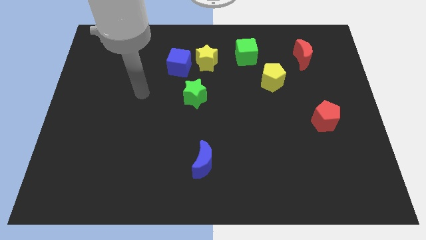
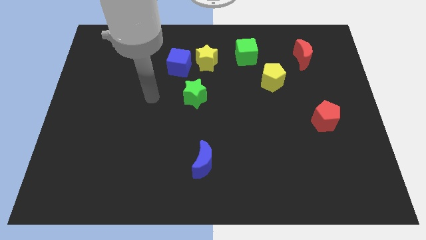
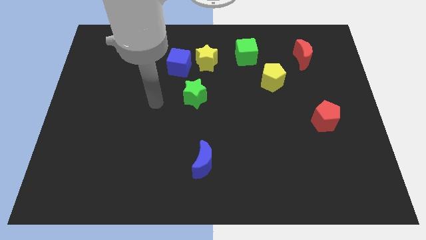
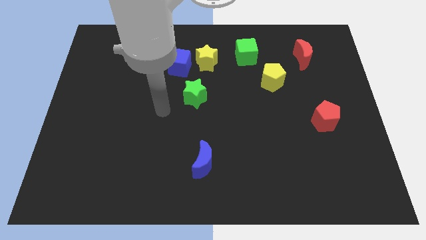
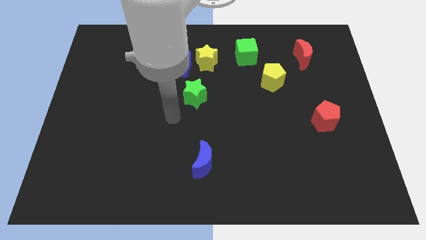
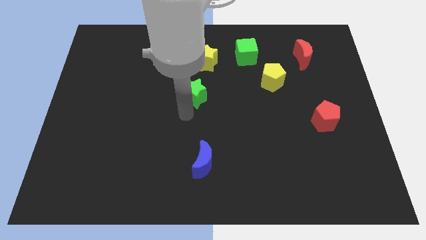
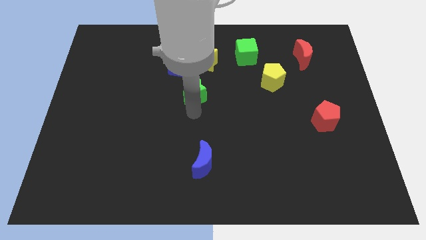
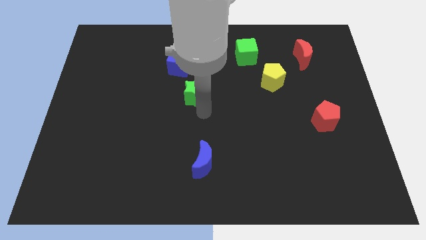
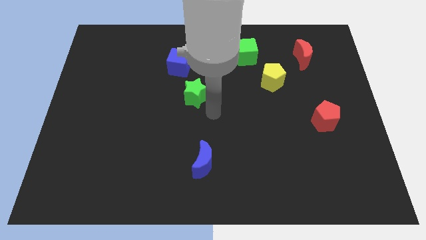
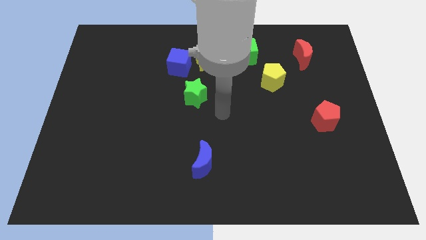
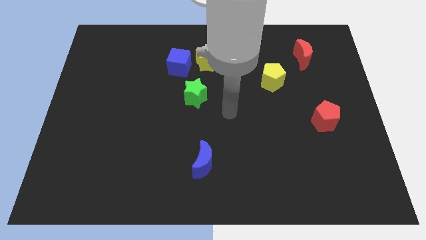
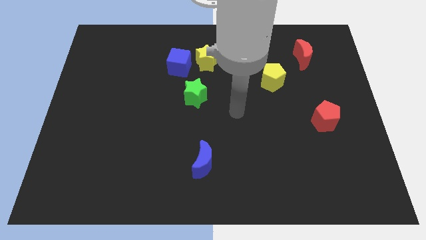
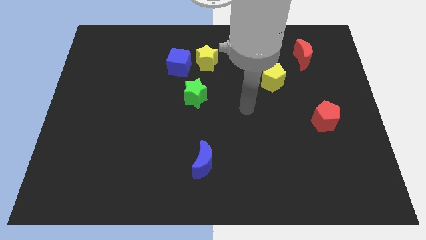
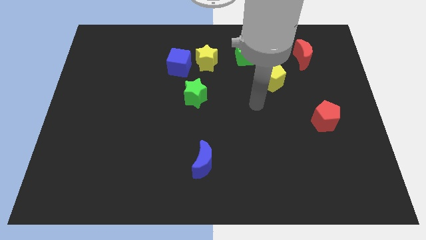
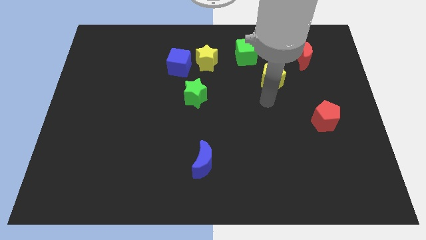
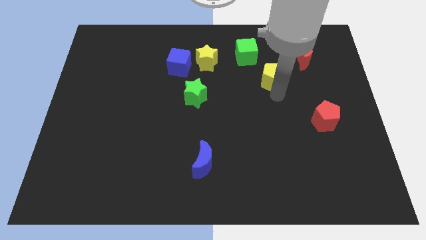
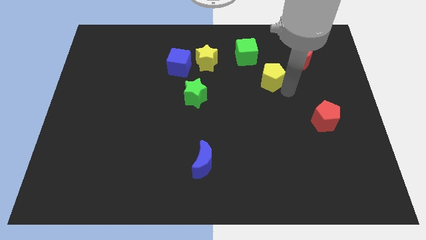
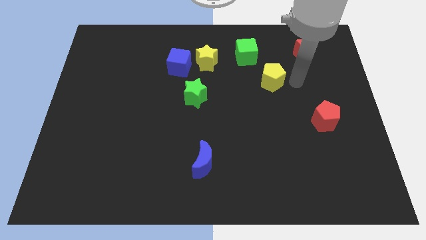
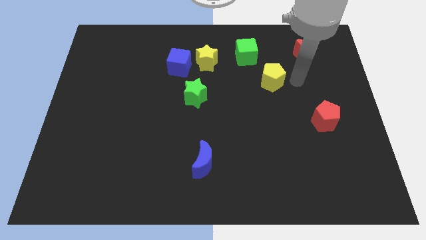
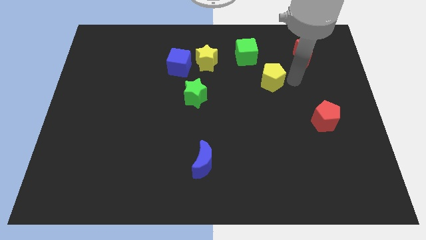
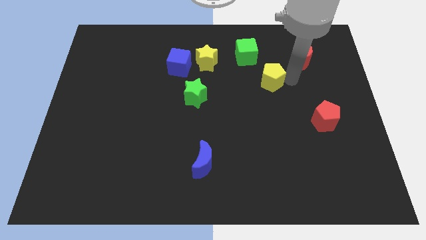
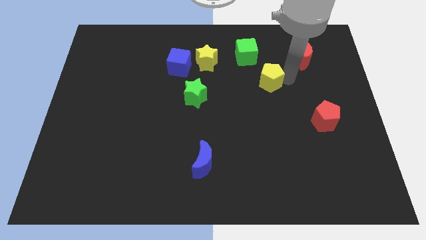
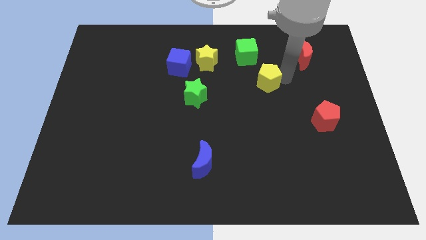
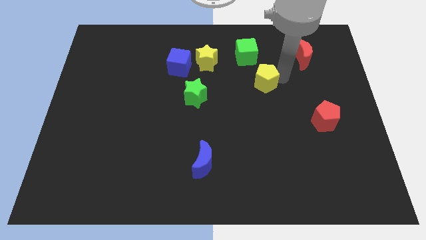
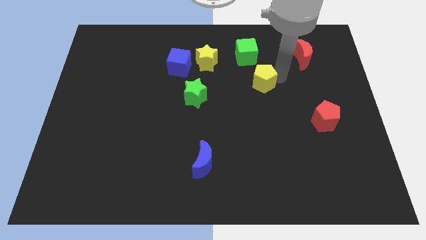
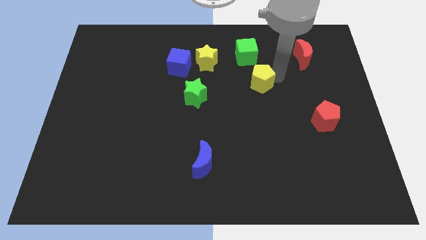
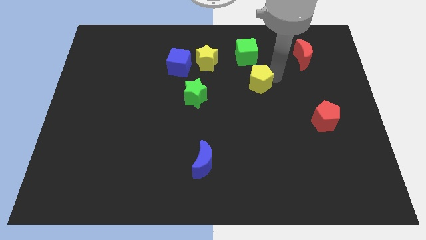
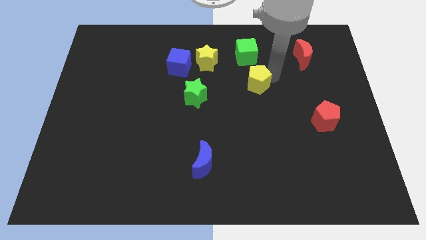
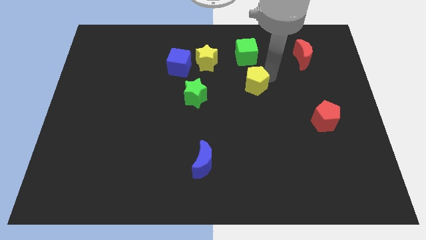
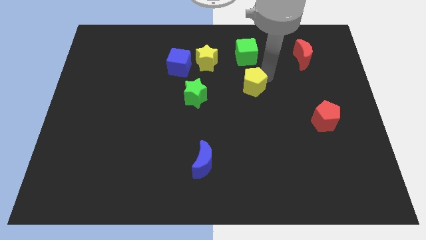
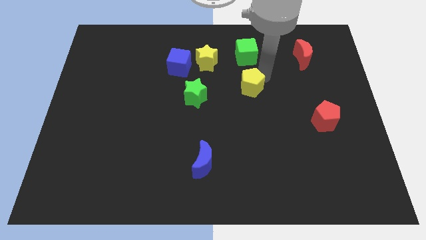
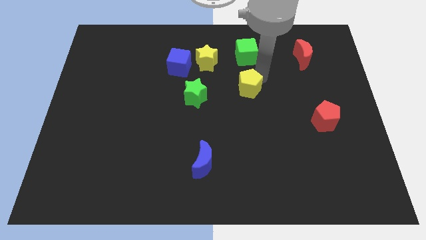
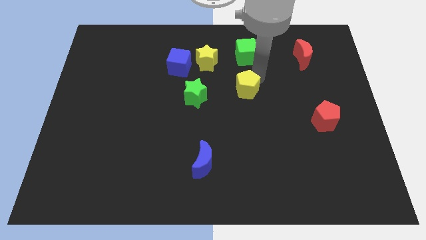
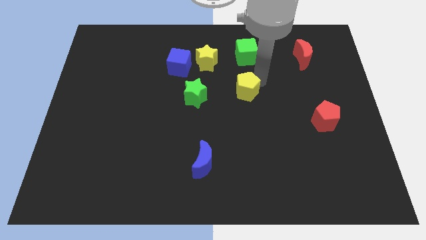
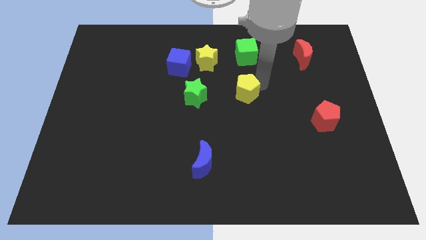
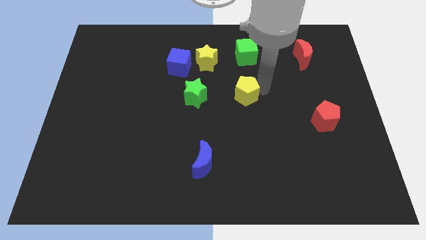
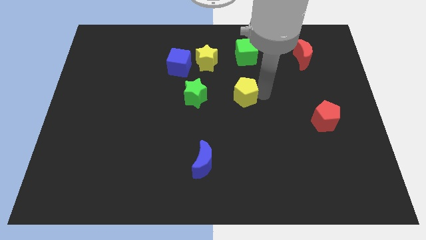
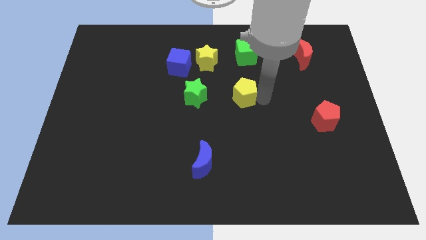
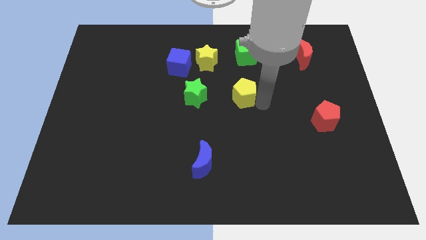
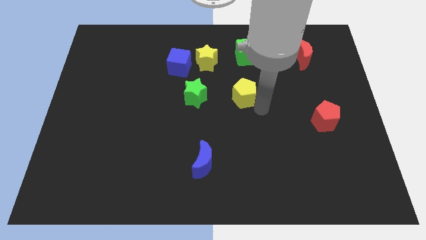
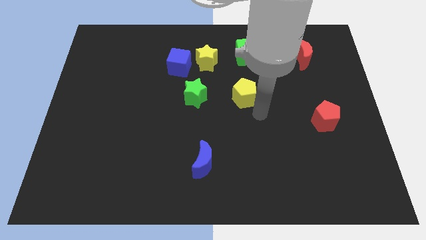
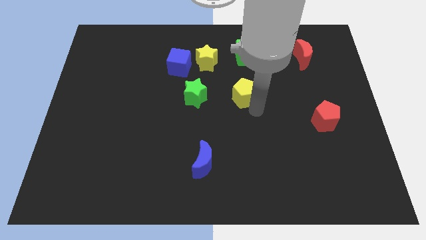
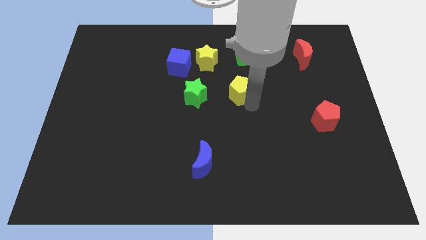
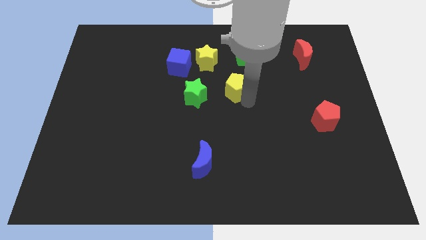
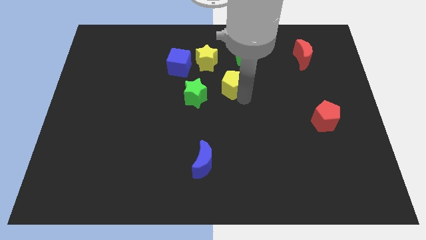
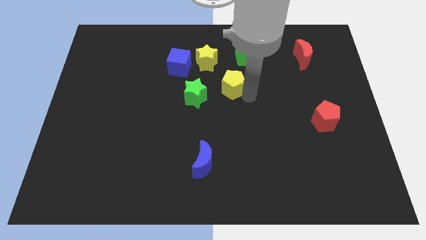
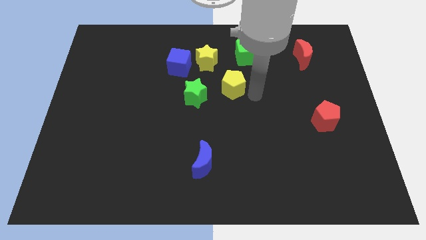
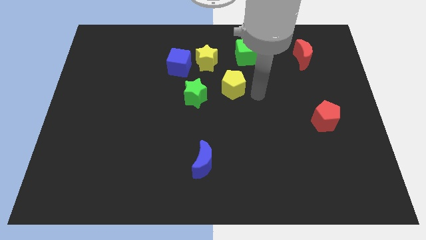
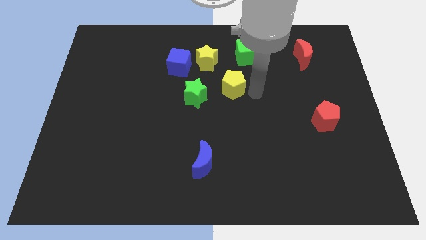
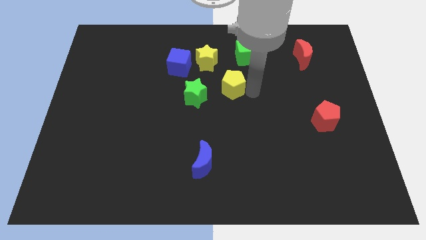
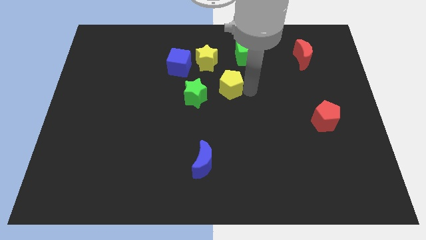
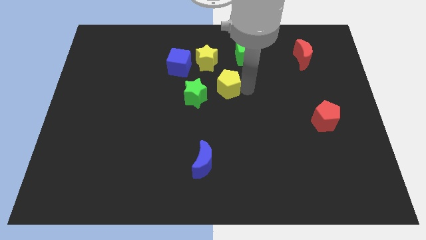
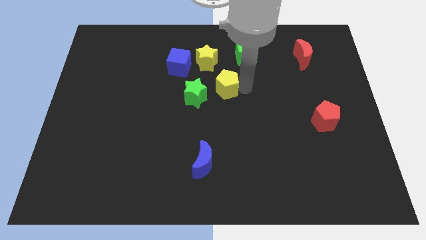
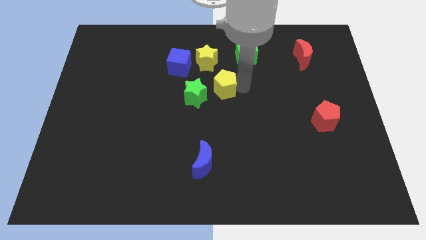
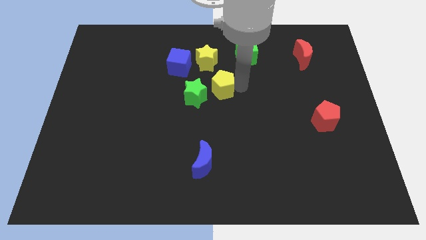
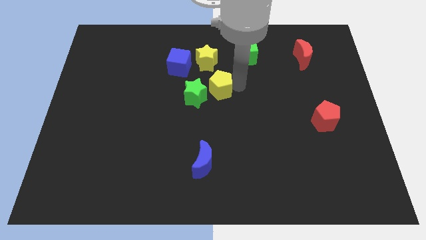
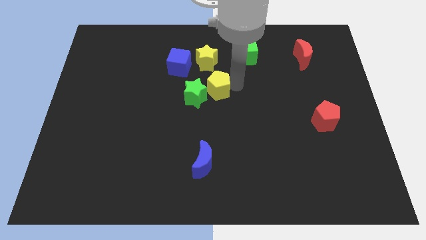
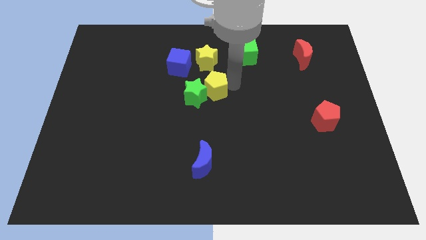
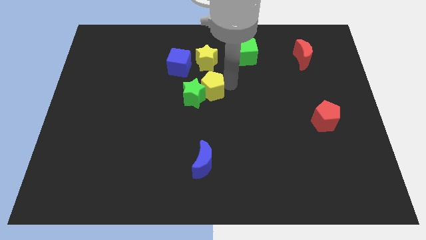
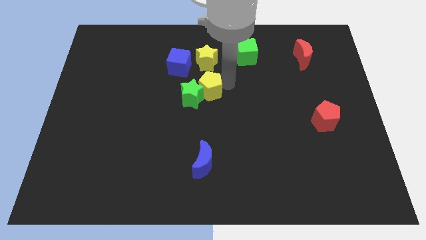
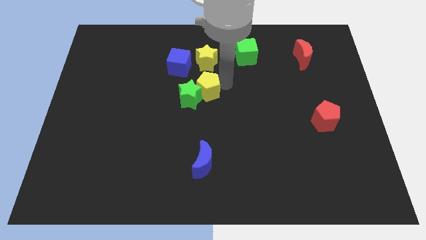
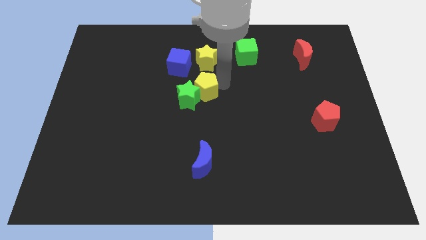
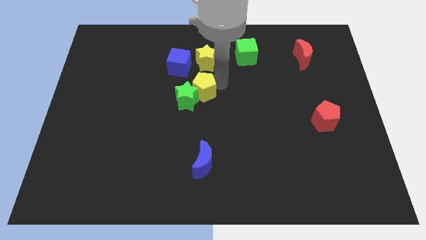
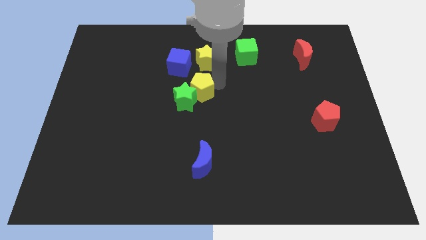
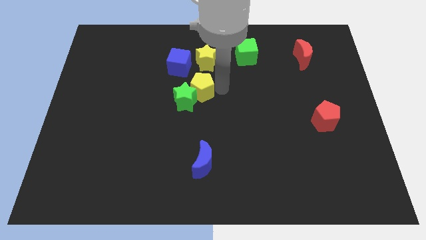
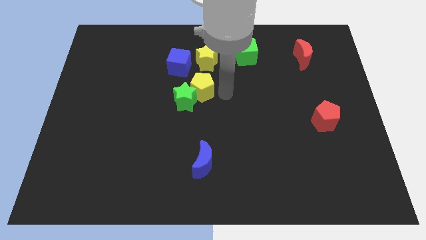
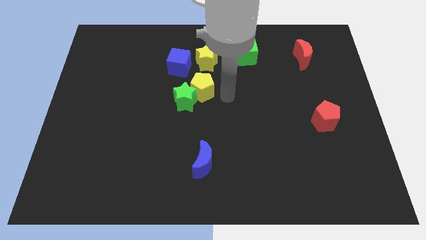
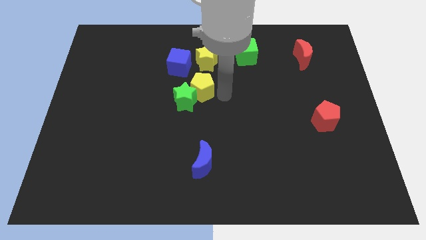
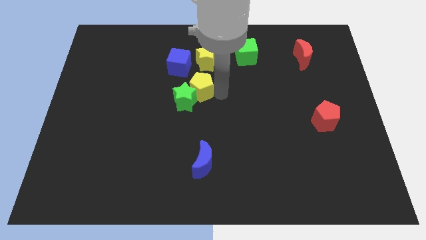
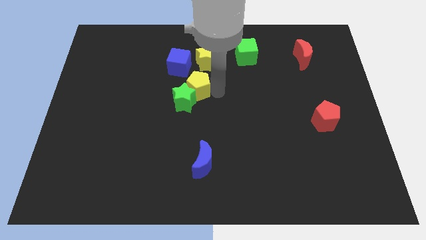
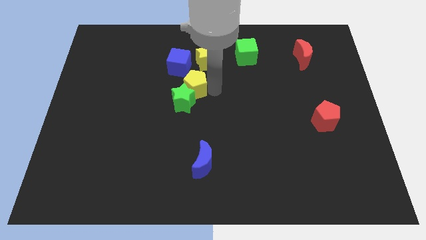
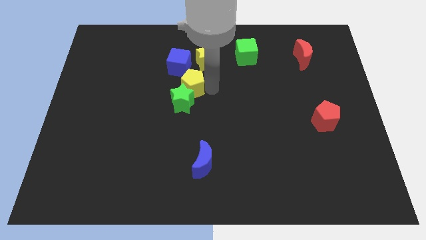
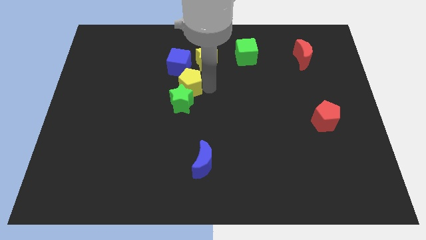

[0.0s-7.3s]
move the yellow pentagon to the left

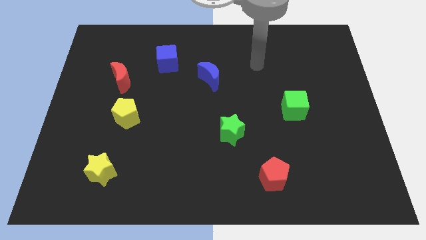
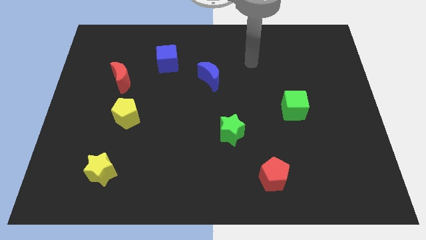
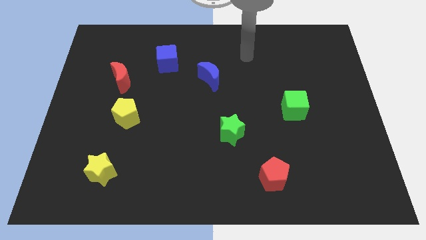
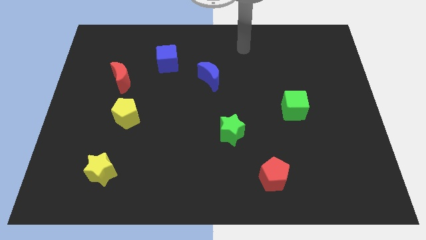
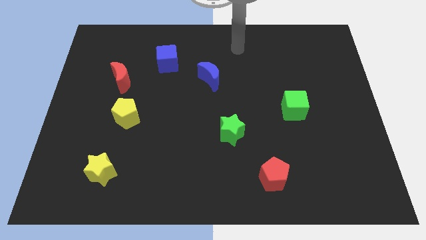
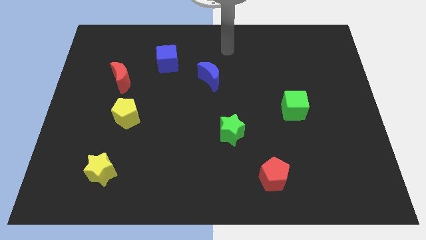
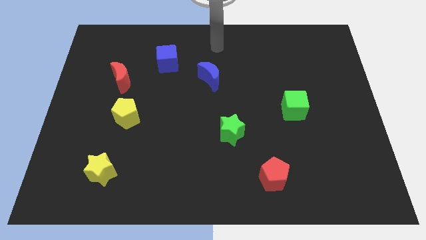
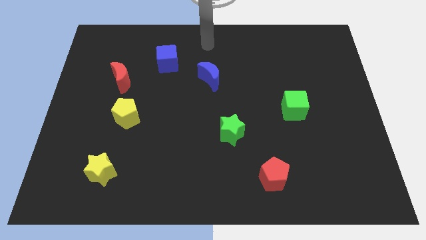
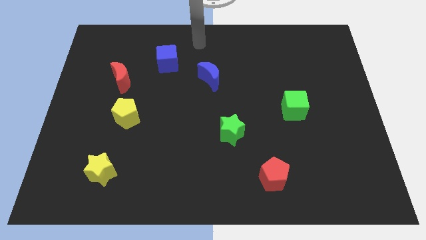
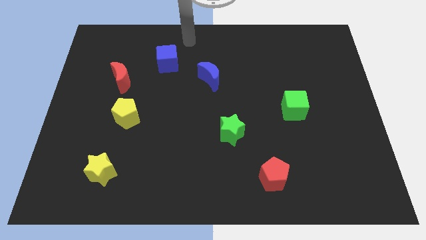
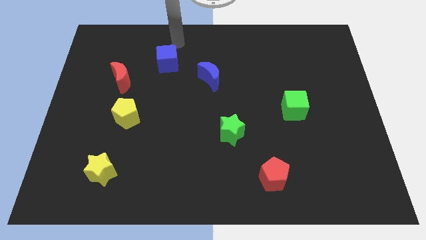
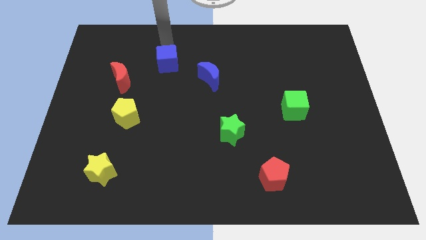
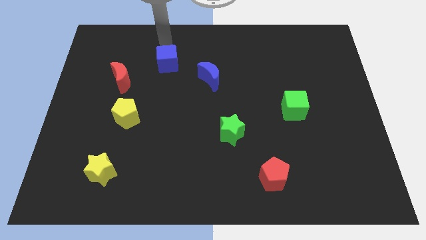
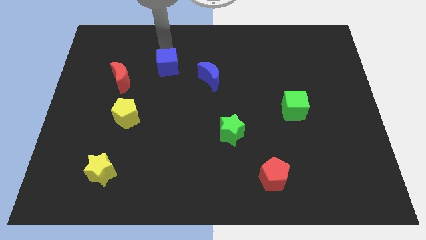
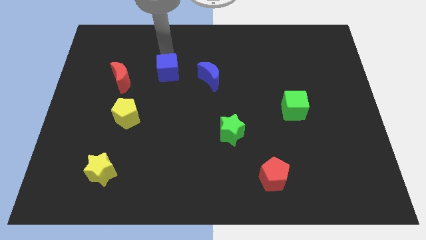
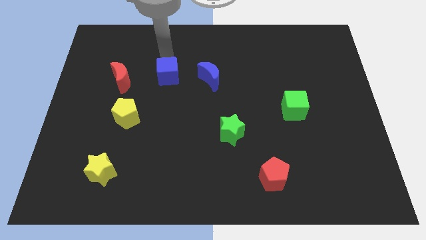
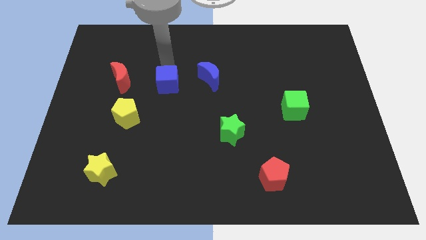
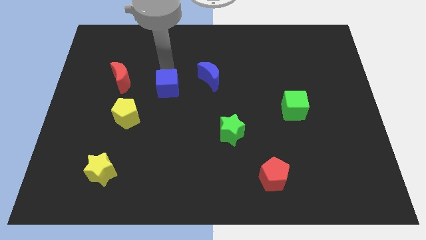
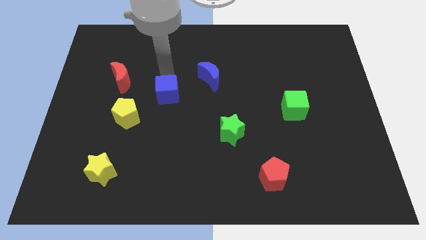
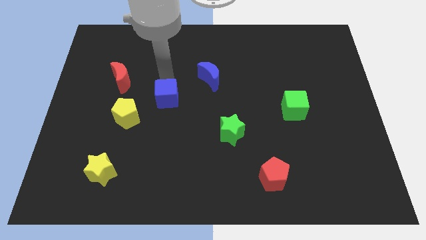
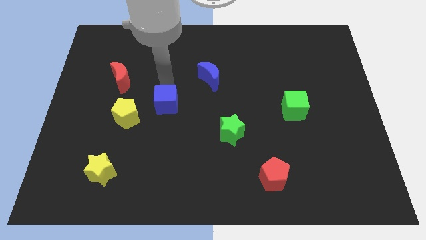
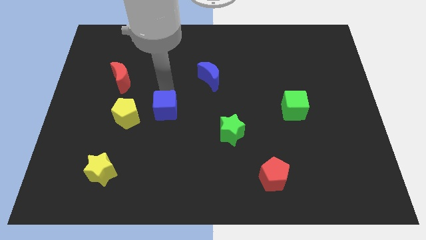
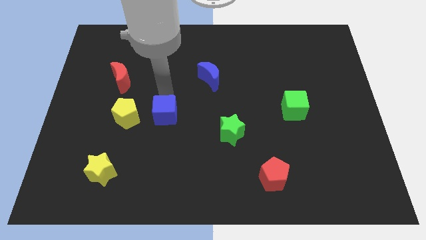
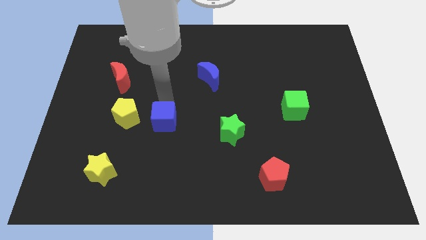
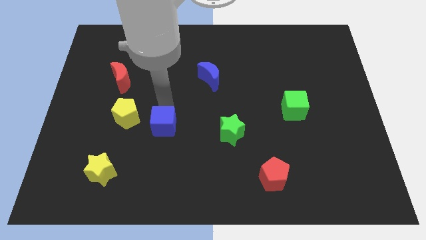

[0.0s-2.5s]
move the blue cube down
